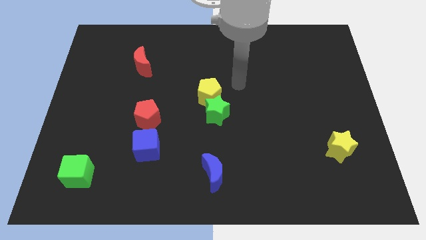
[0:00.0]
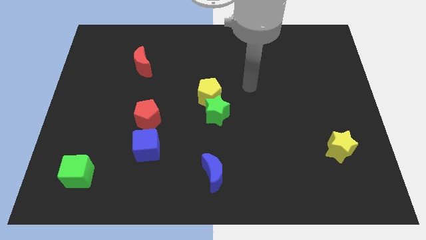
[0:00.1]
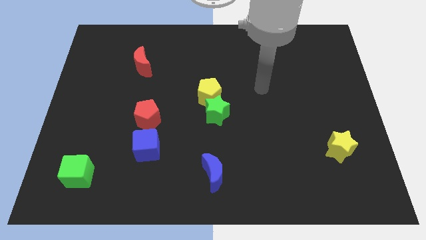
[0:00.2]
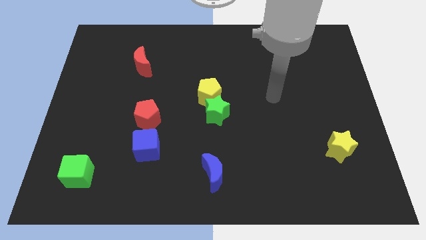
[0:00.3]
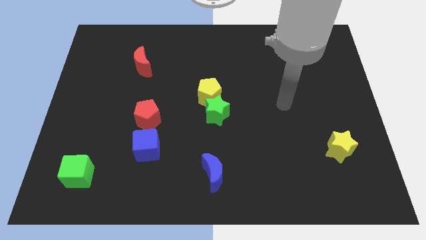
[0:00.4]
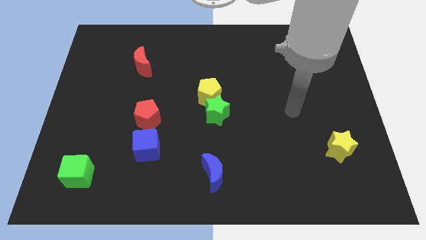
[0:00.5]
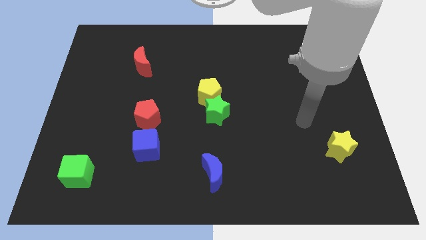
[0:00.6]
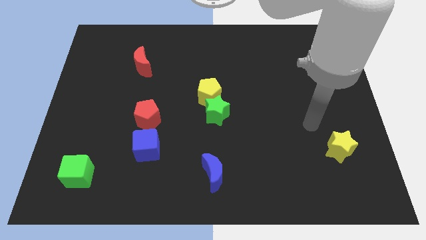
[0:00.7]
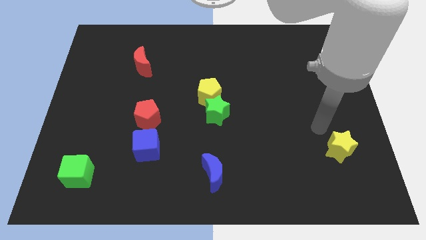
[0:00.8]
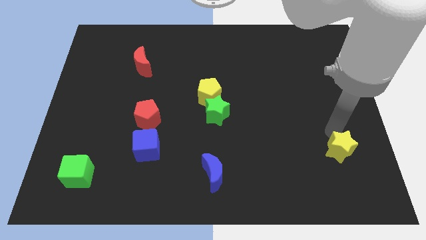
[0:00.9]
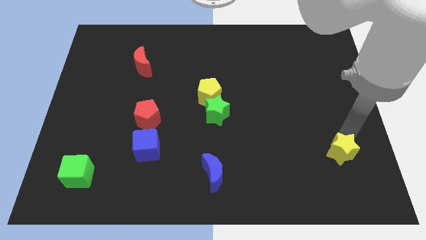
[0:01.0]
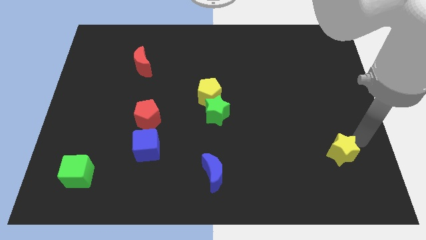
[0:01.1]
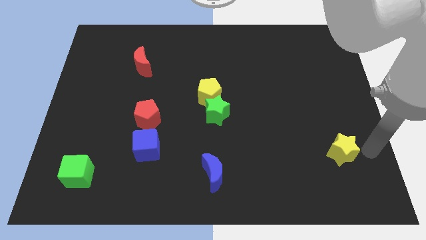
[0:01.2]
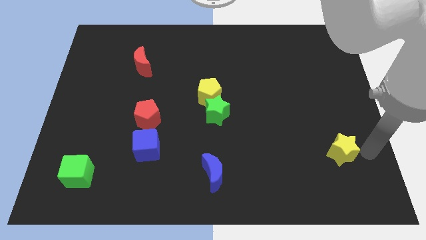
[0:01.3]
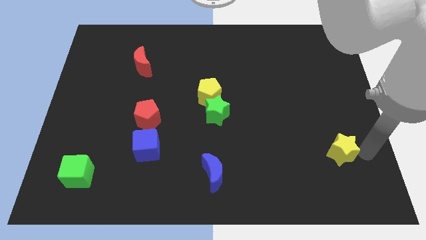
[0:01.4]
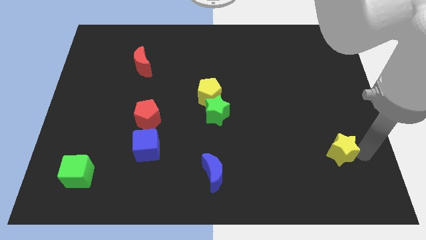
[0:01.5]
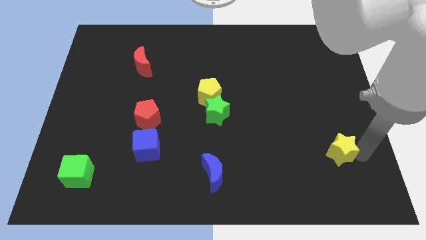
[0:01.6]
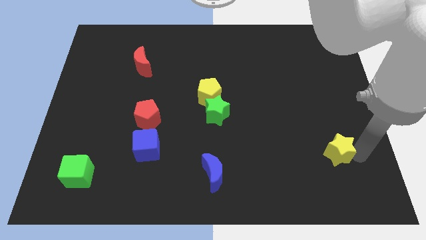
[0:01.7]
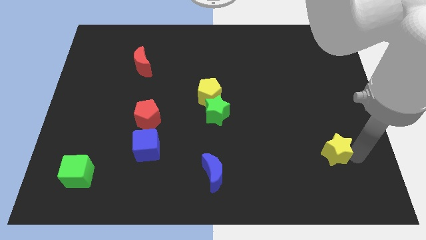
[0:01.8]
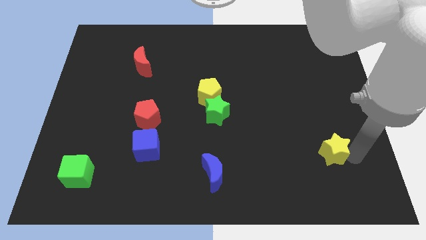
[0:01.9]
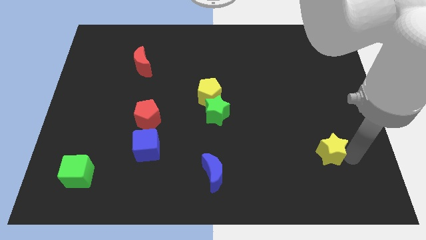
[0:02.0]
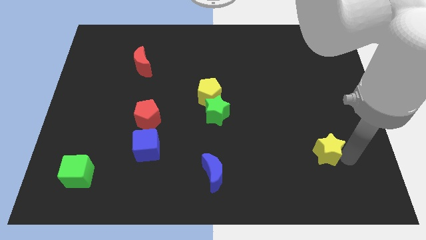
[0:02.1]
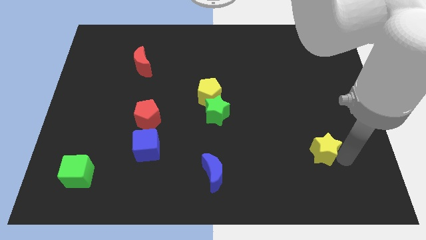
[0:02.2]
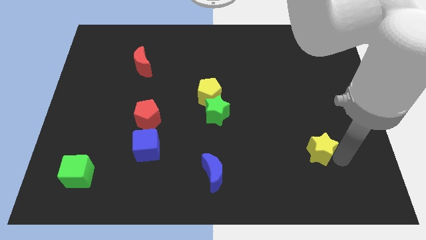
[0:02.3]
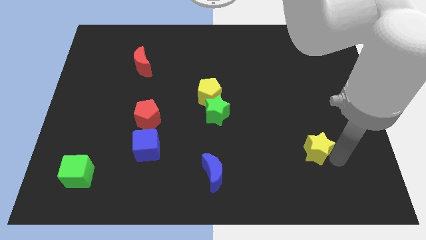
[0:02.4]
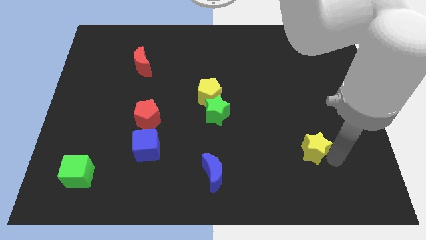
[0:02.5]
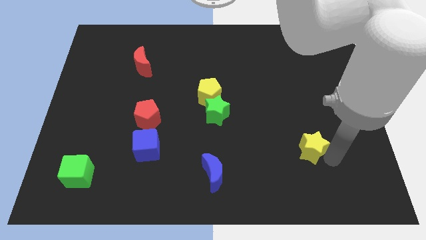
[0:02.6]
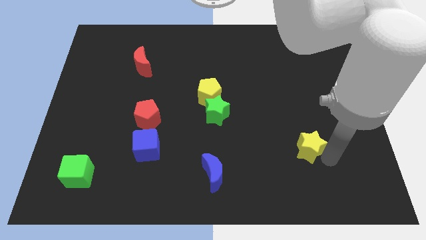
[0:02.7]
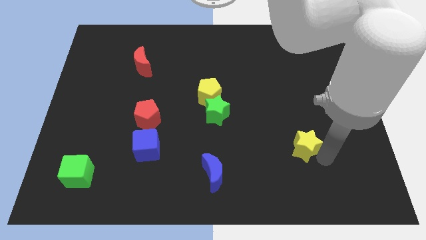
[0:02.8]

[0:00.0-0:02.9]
slide the yellow star a little bit left

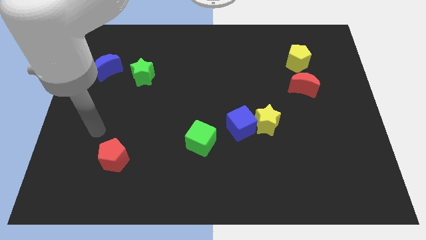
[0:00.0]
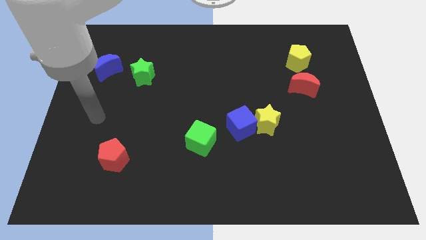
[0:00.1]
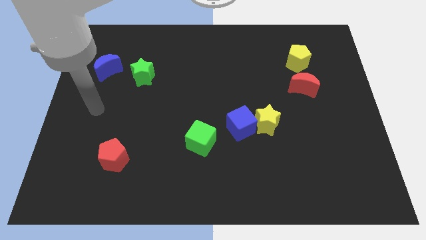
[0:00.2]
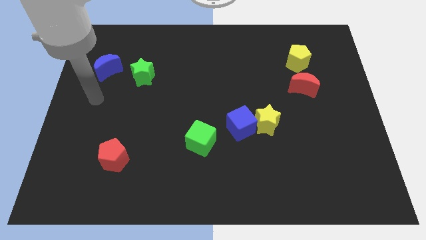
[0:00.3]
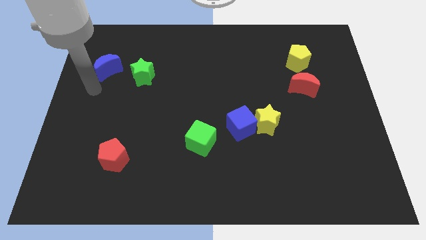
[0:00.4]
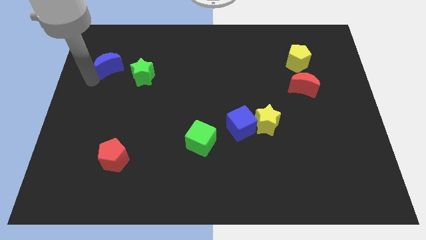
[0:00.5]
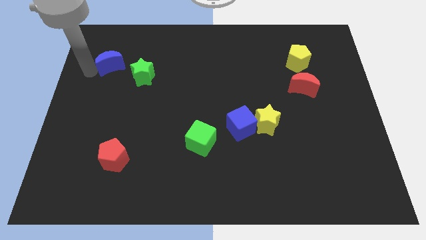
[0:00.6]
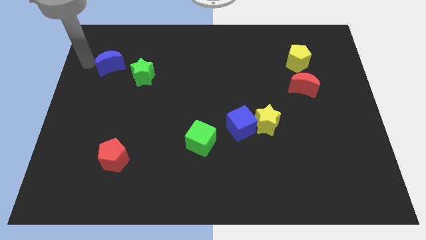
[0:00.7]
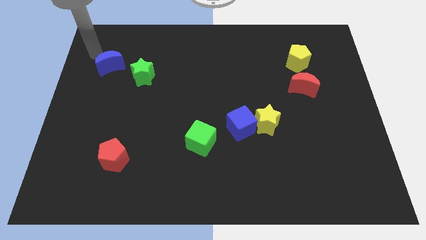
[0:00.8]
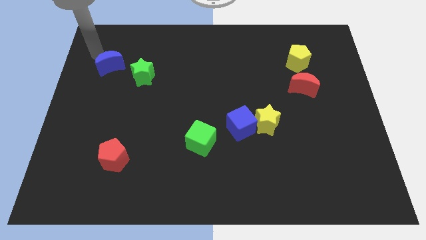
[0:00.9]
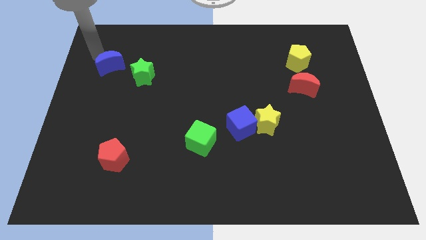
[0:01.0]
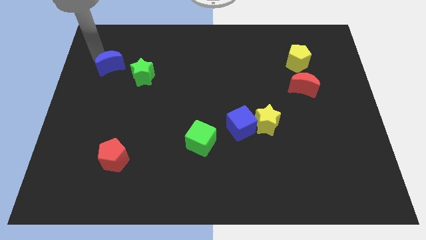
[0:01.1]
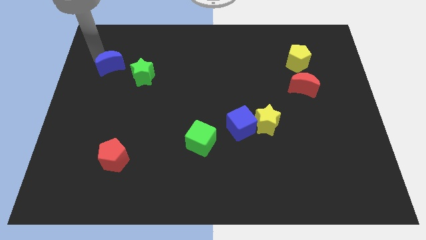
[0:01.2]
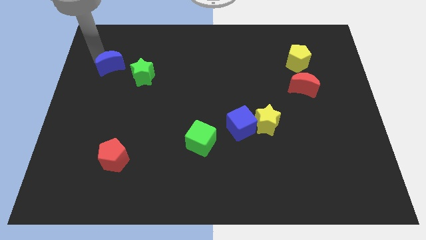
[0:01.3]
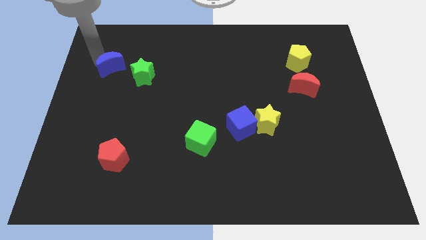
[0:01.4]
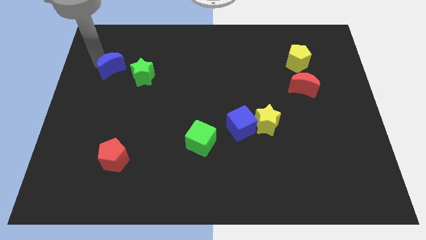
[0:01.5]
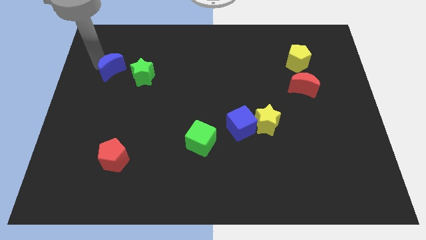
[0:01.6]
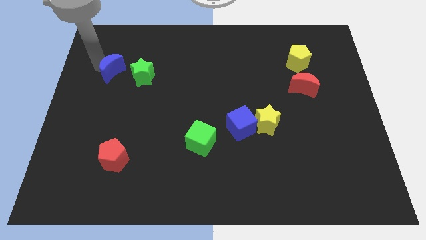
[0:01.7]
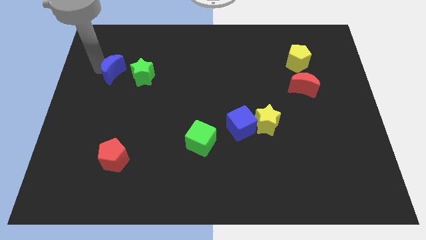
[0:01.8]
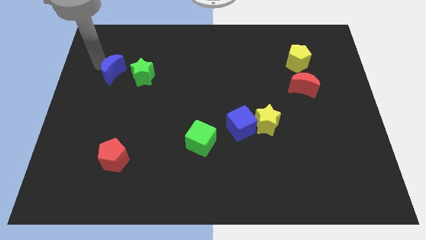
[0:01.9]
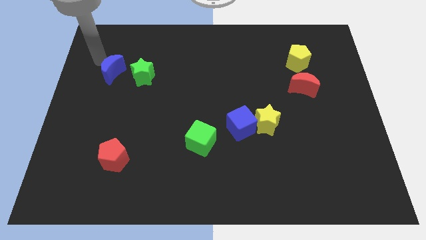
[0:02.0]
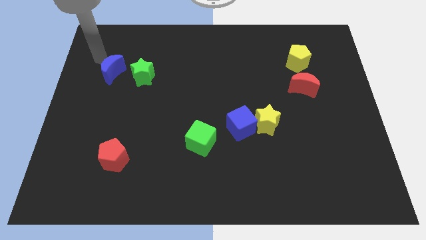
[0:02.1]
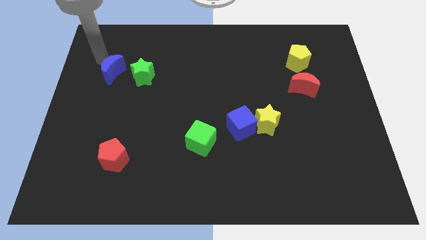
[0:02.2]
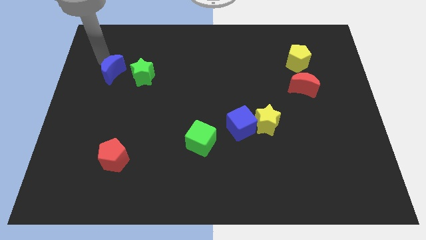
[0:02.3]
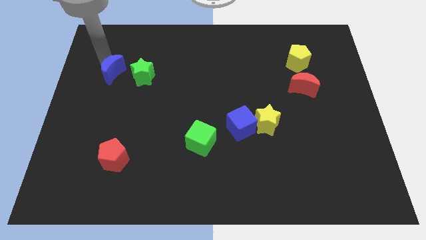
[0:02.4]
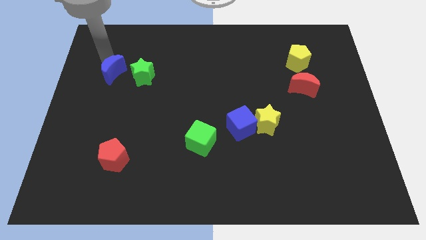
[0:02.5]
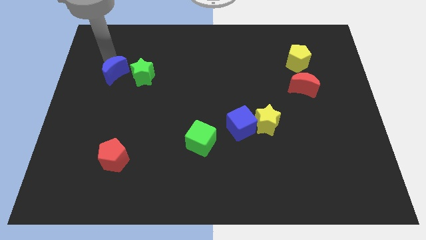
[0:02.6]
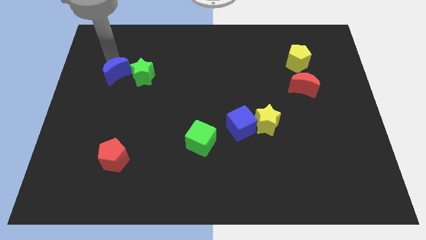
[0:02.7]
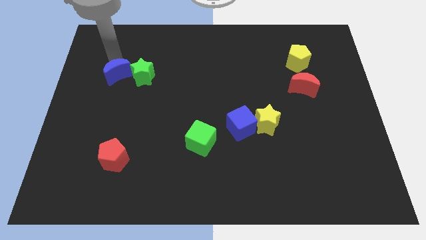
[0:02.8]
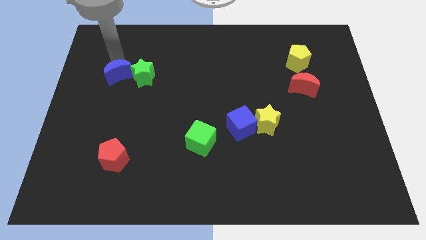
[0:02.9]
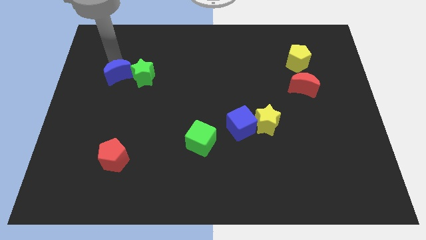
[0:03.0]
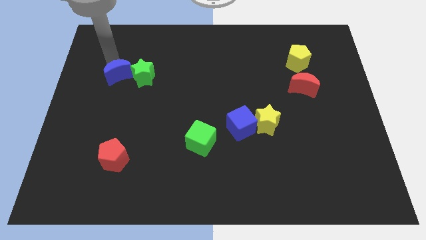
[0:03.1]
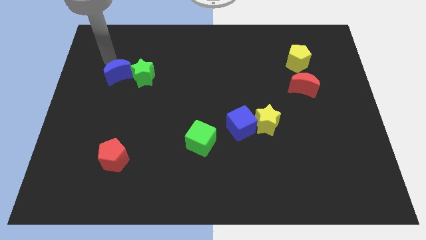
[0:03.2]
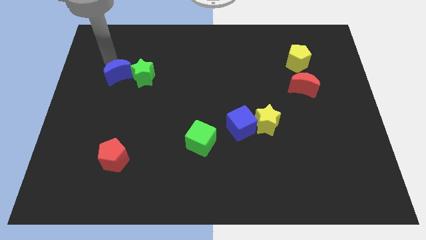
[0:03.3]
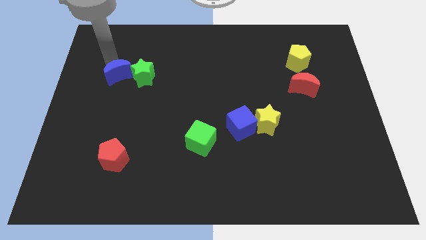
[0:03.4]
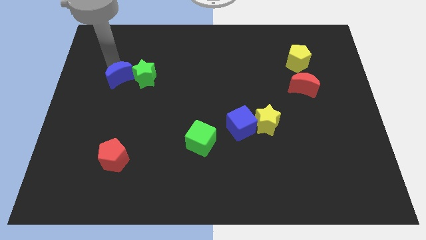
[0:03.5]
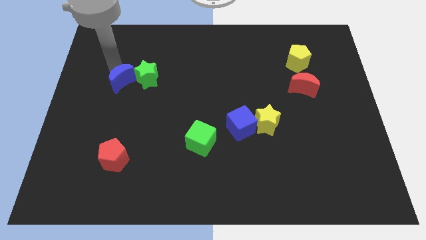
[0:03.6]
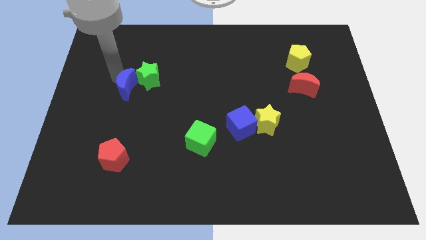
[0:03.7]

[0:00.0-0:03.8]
slightly slide the blue moon down and right diagonally

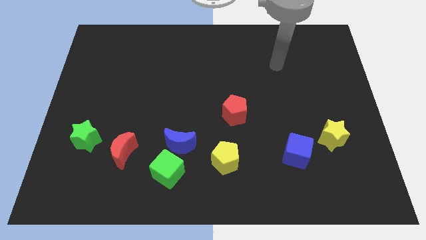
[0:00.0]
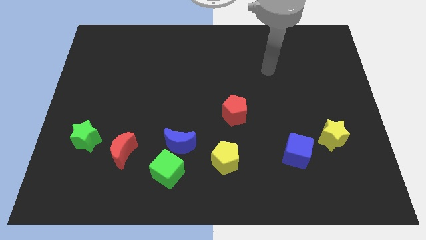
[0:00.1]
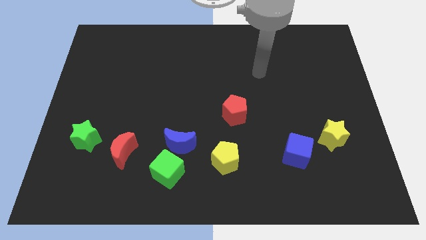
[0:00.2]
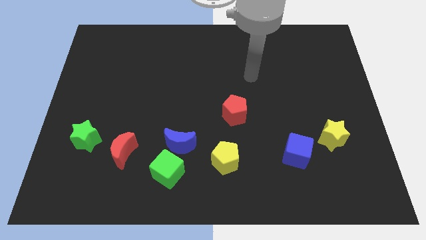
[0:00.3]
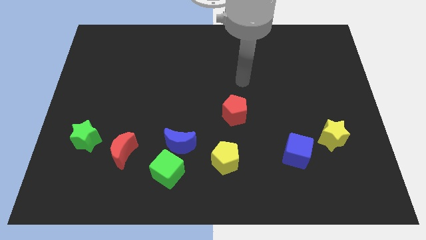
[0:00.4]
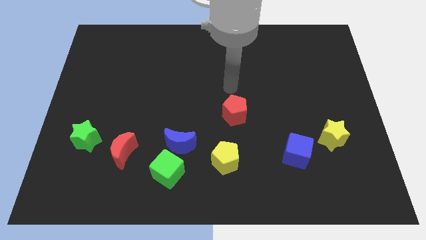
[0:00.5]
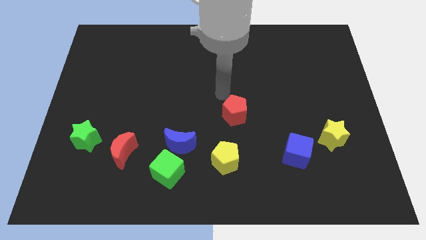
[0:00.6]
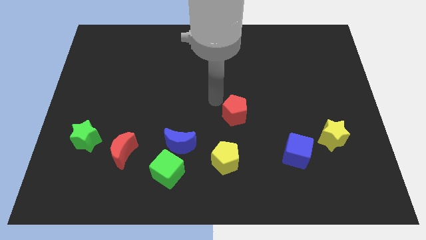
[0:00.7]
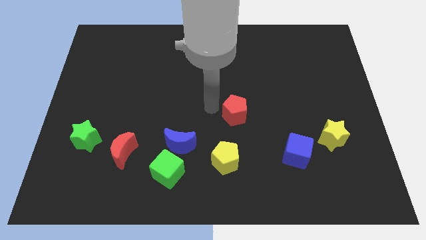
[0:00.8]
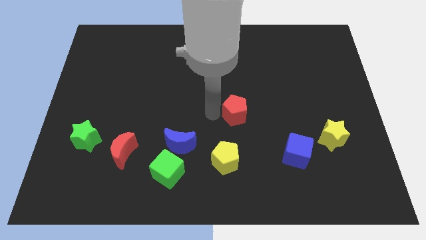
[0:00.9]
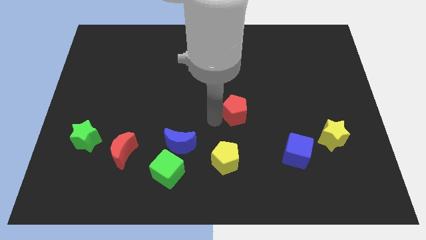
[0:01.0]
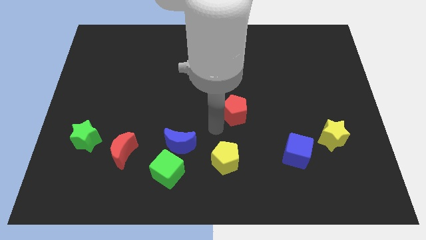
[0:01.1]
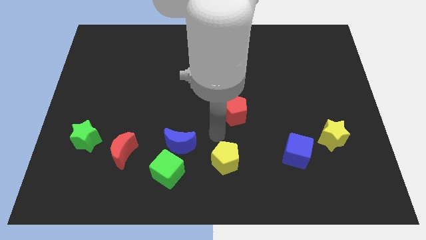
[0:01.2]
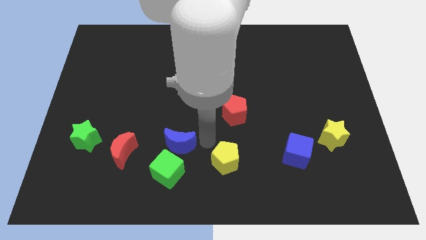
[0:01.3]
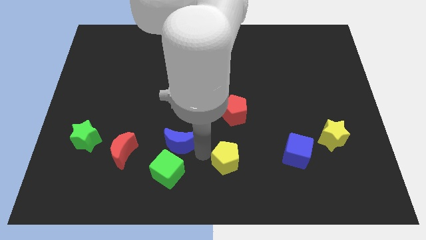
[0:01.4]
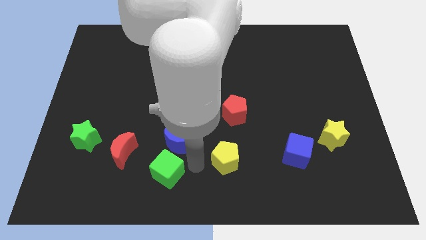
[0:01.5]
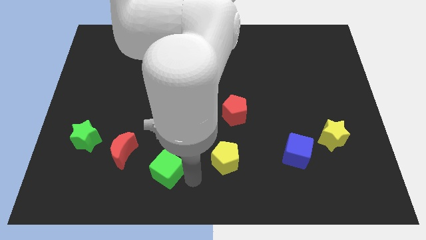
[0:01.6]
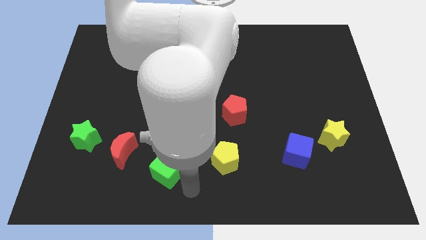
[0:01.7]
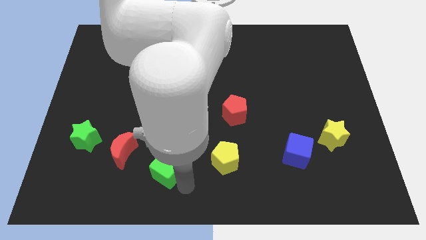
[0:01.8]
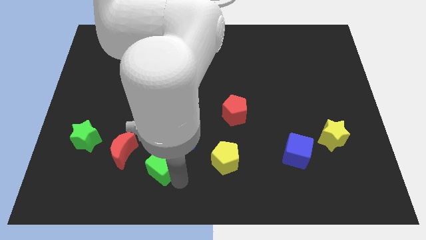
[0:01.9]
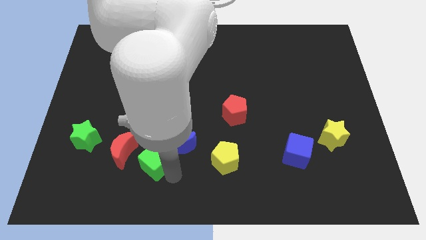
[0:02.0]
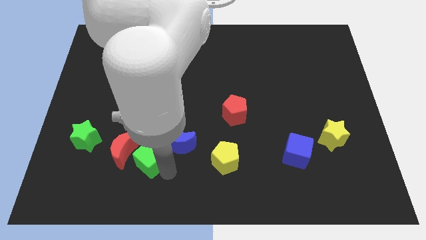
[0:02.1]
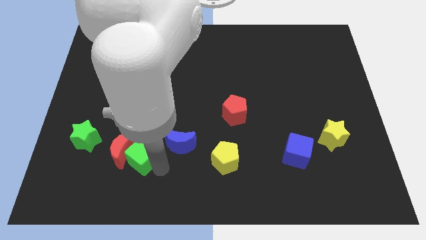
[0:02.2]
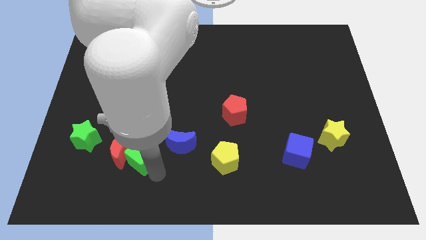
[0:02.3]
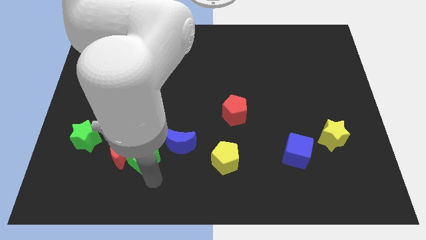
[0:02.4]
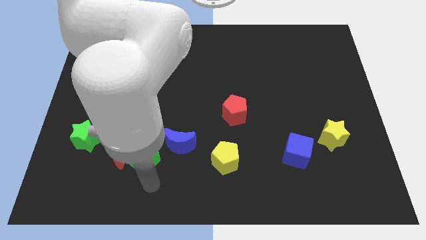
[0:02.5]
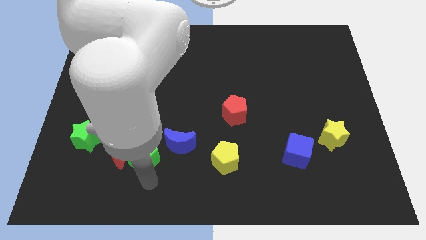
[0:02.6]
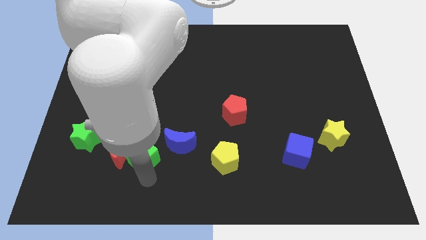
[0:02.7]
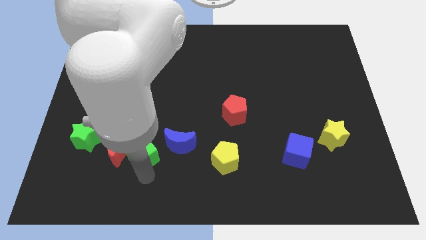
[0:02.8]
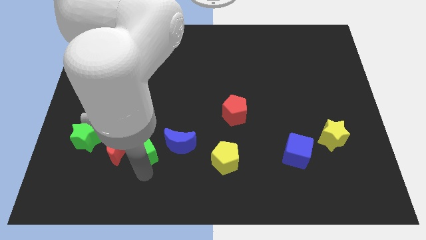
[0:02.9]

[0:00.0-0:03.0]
move the green cube a bit up and to the left diagonally
